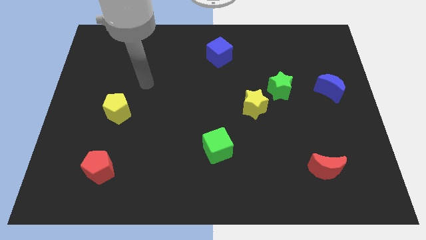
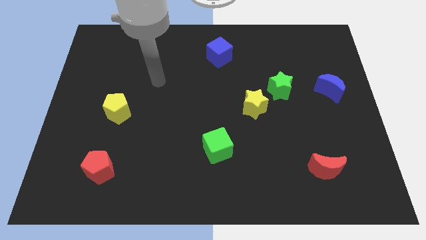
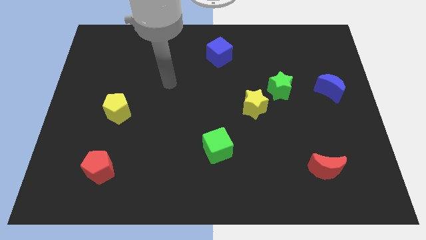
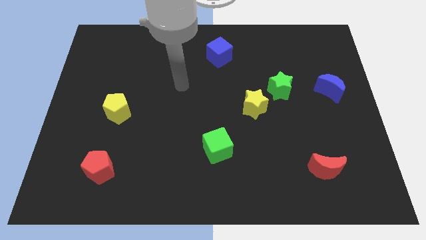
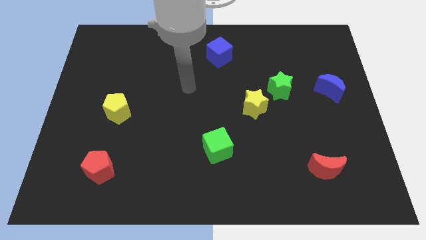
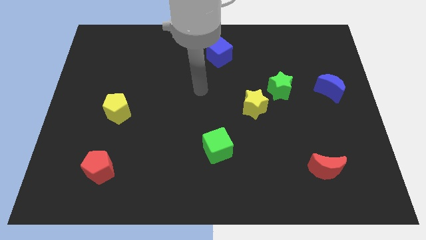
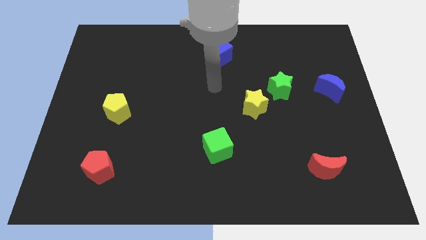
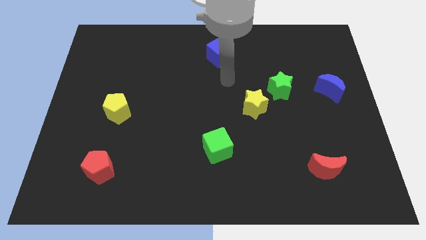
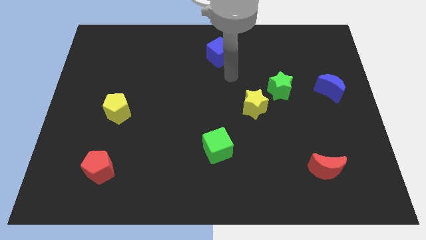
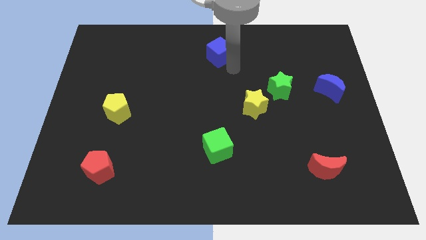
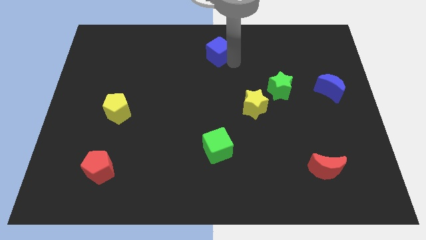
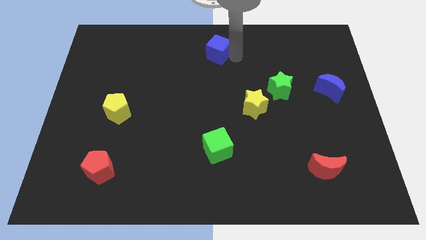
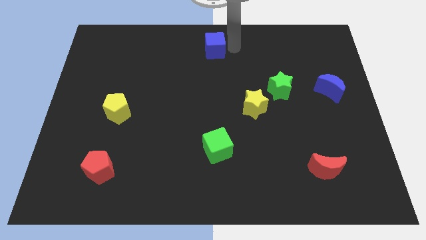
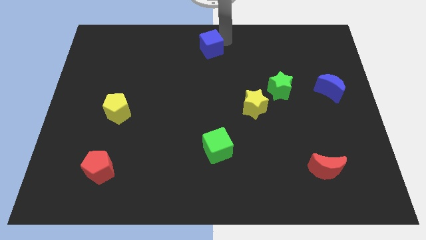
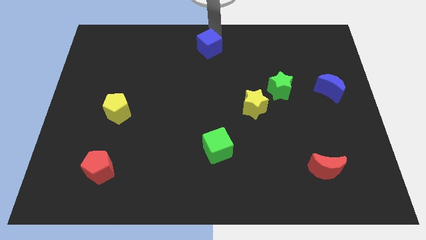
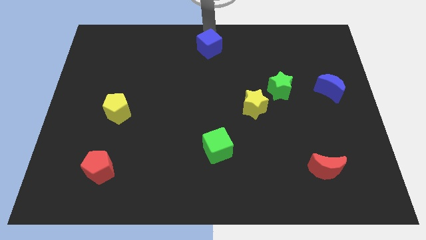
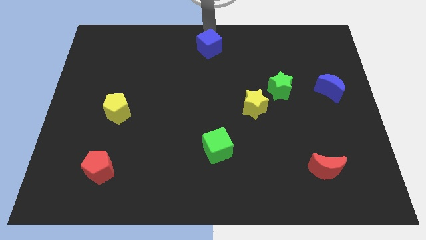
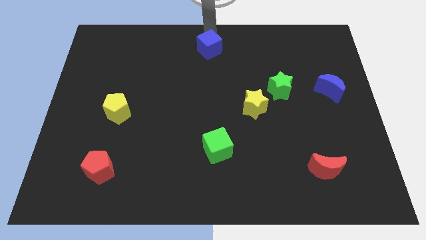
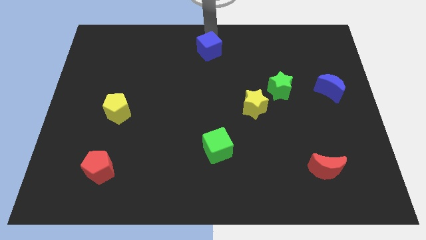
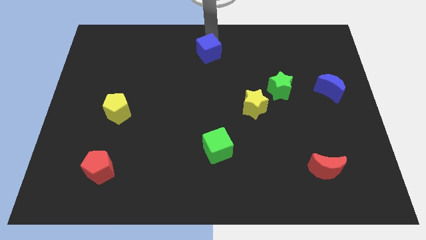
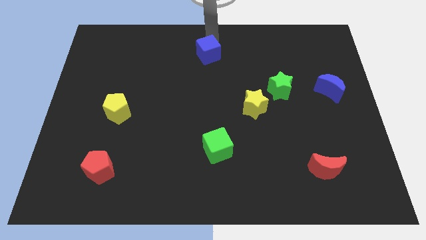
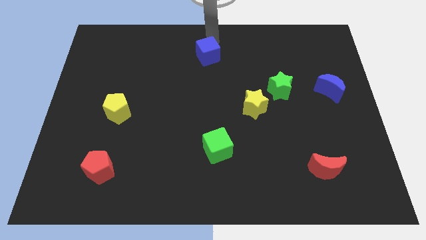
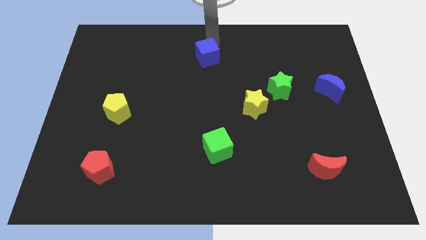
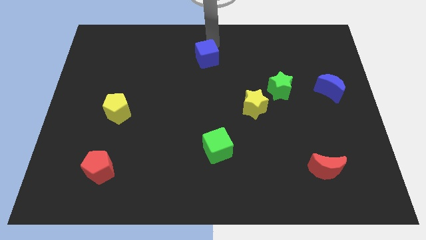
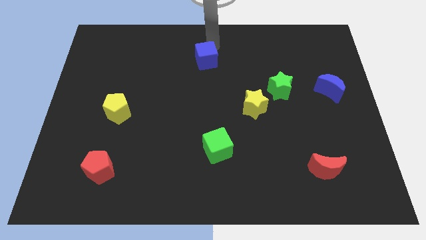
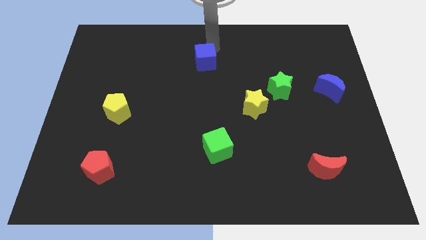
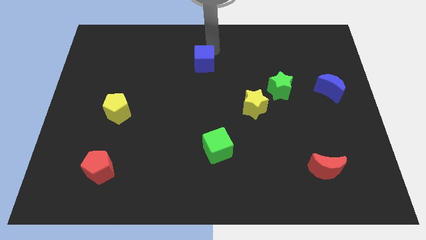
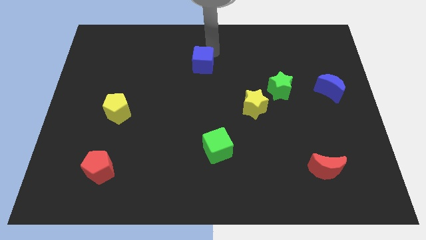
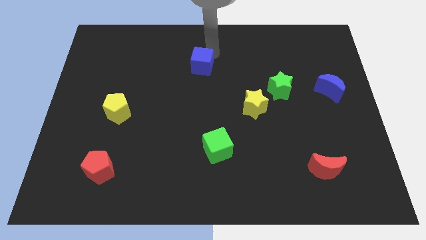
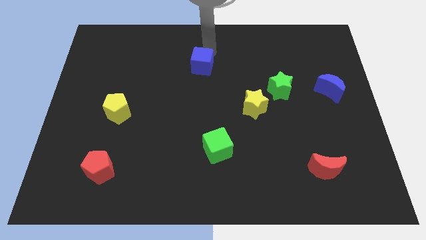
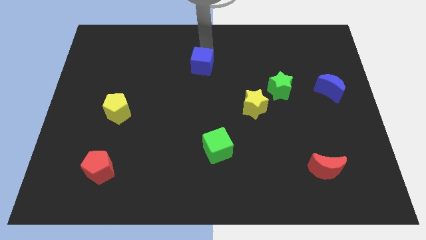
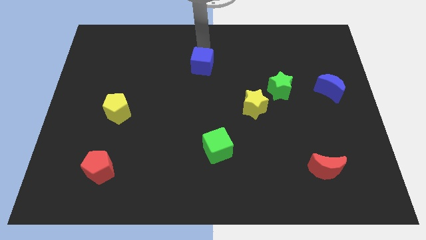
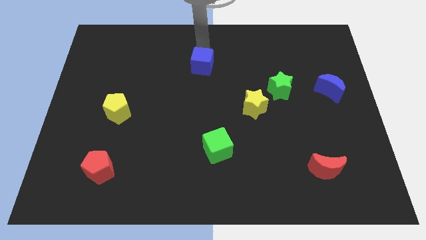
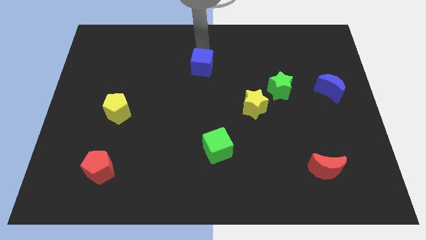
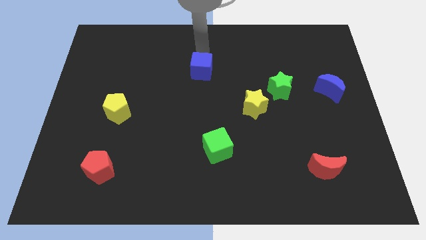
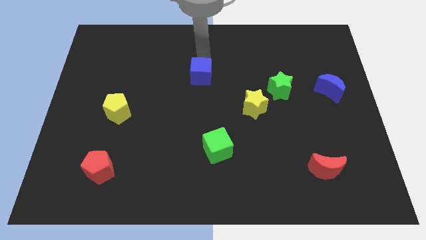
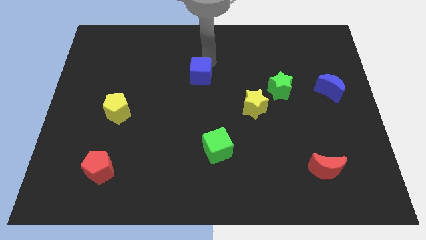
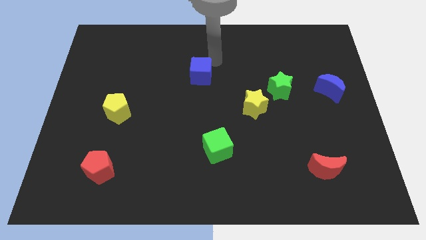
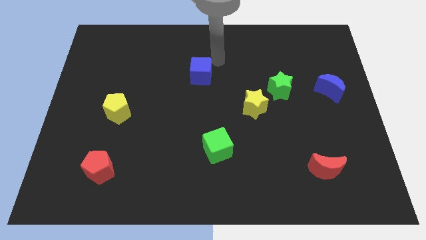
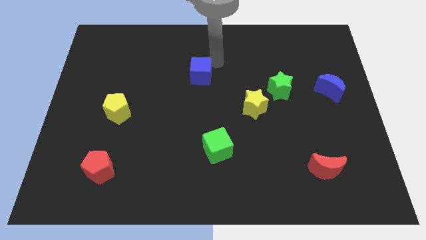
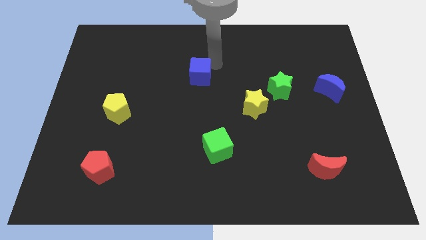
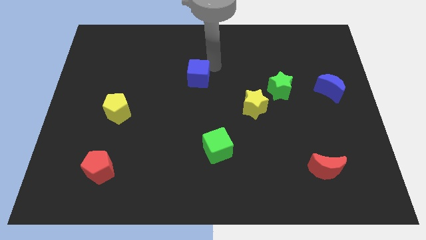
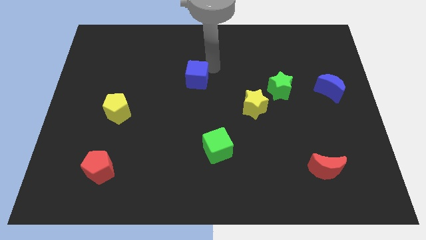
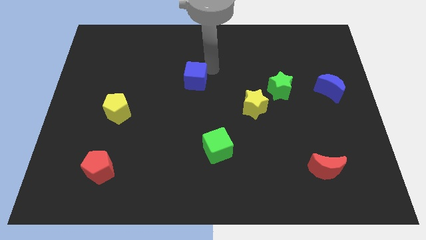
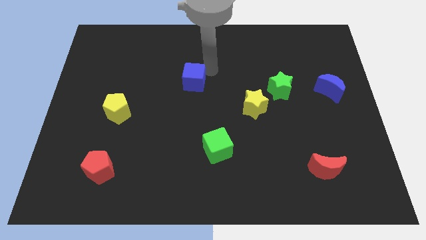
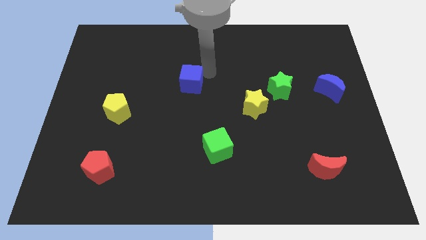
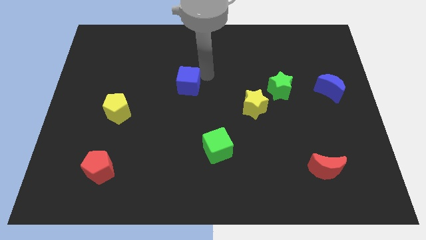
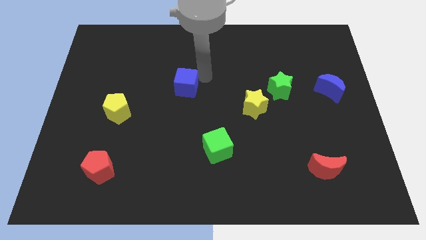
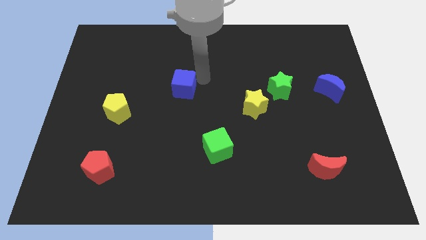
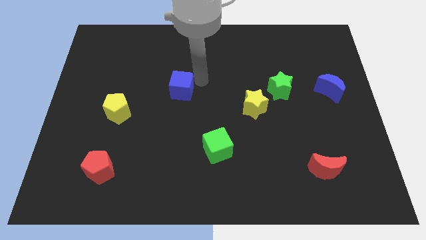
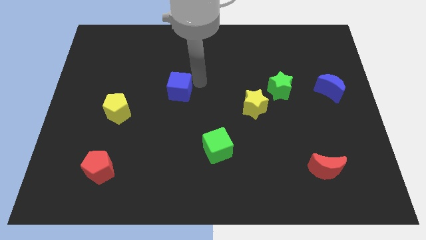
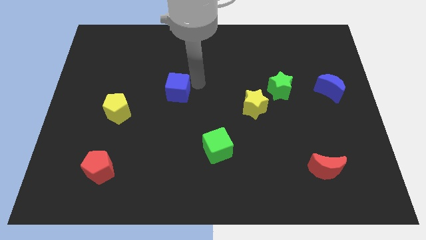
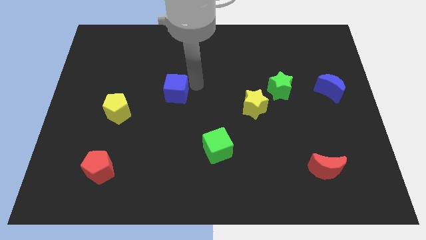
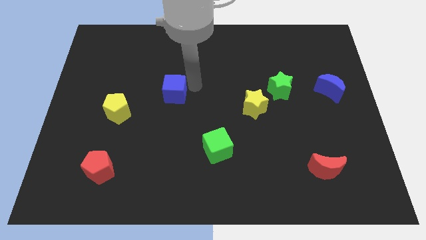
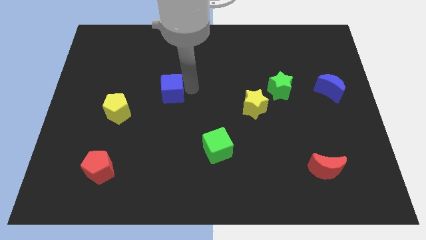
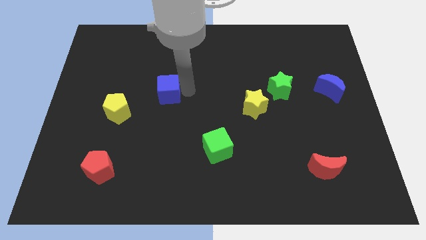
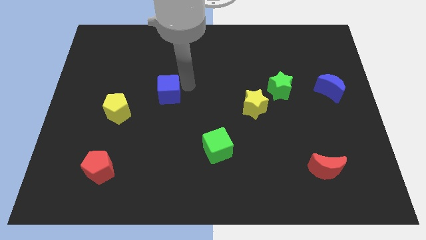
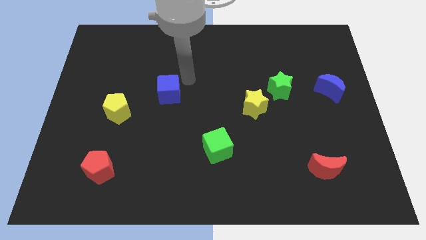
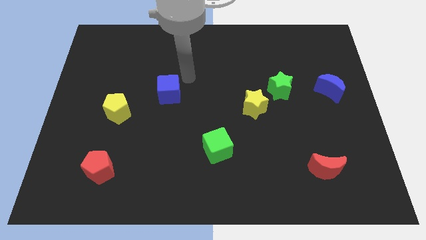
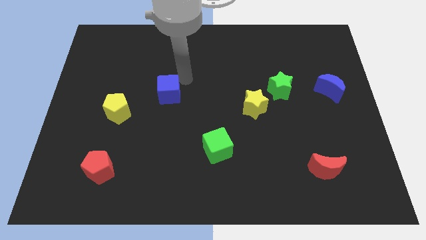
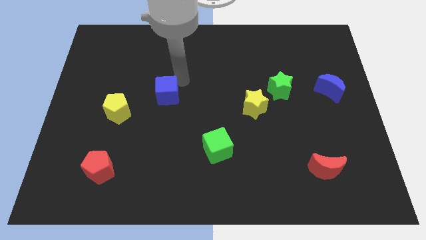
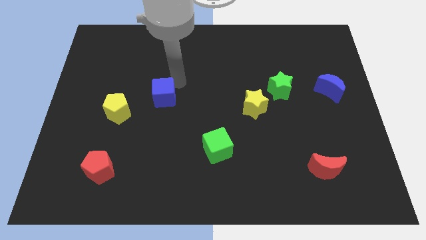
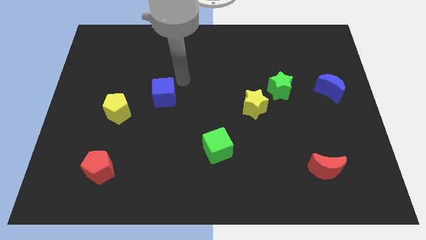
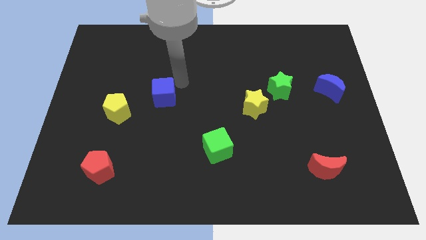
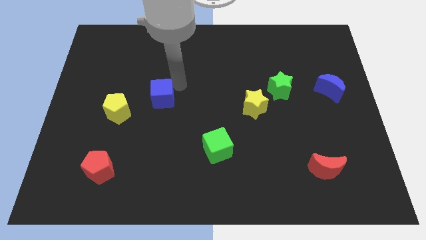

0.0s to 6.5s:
move the blue cube diagonally down and left

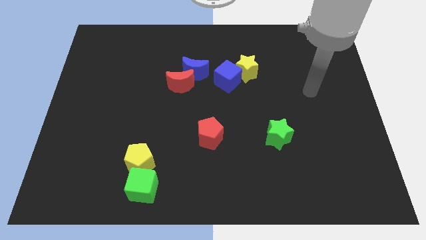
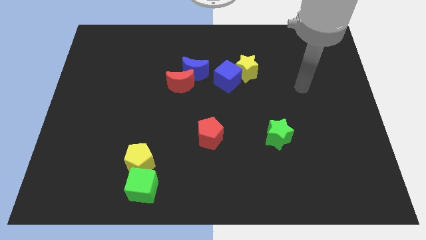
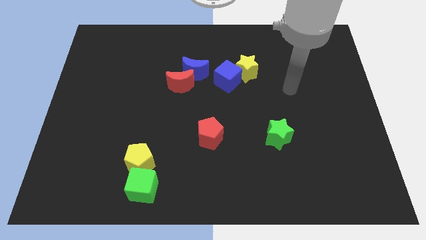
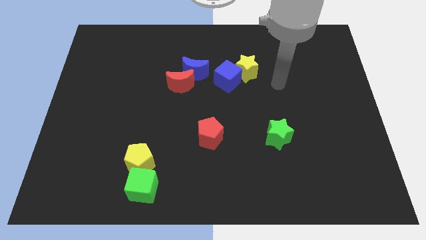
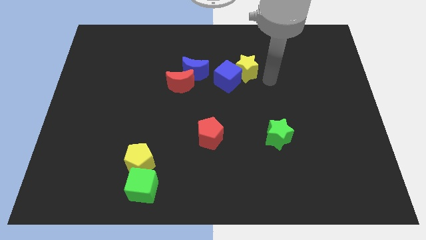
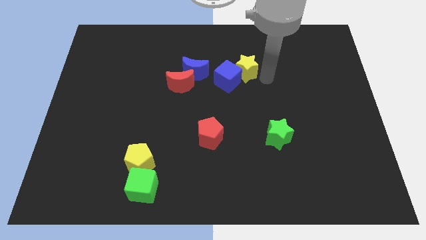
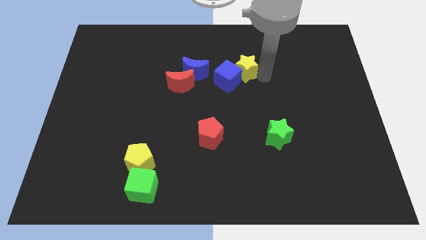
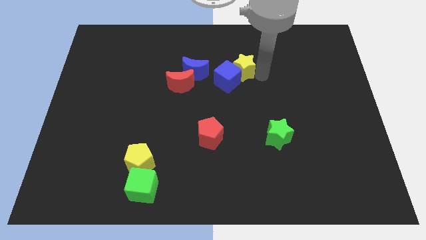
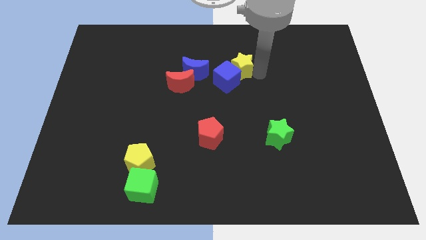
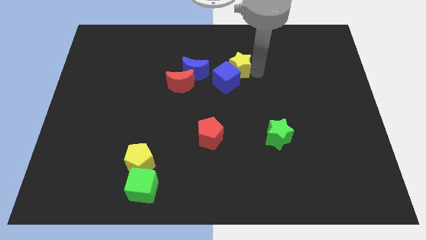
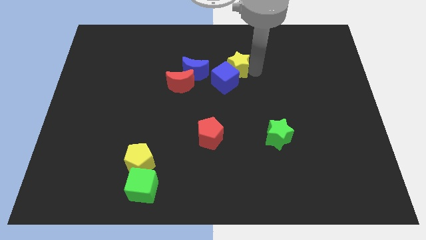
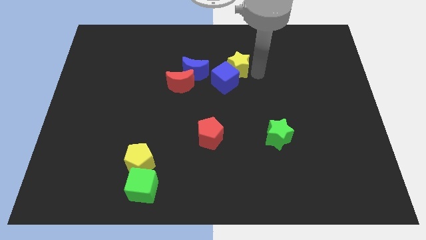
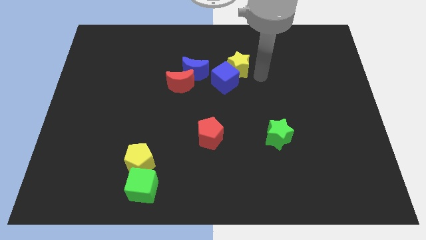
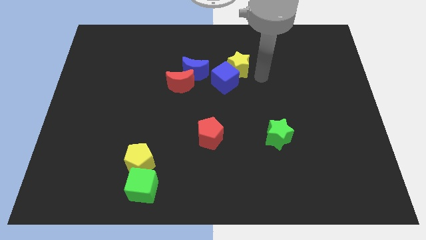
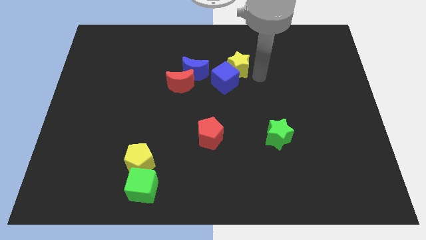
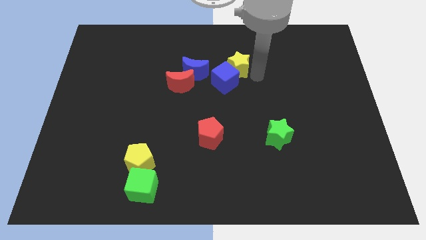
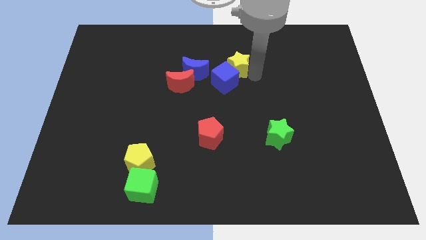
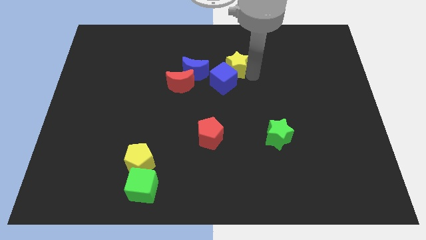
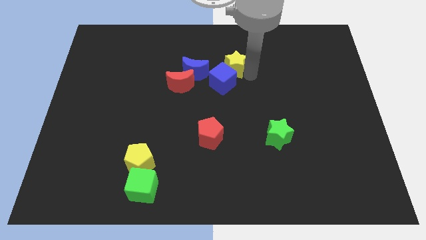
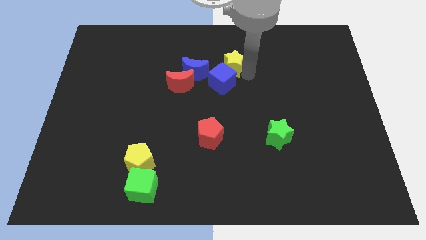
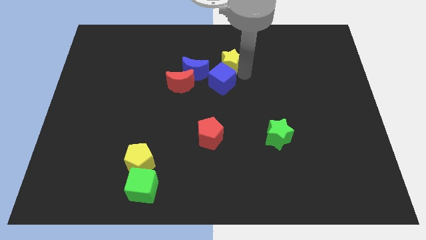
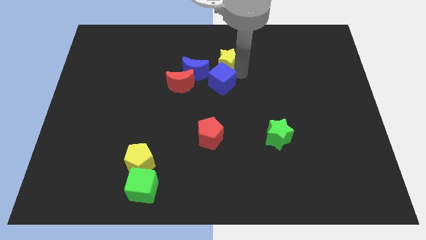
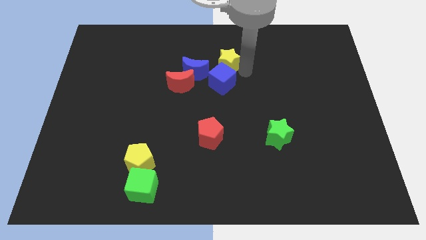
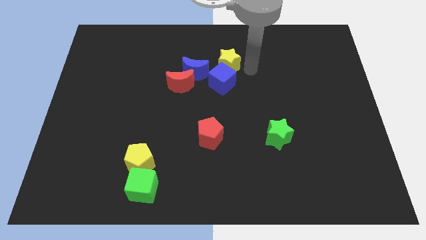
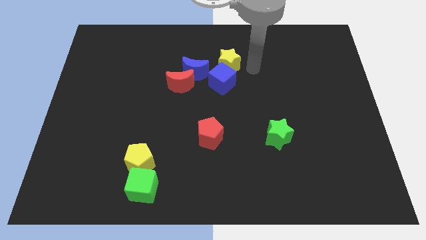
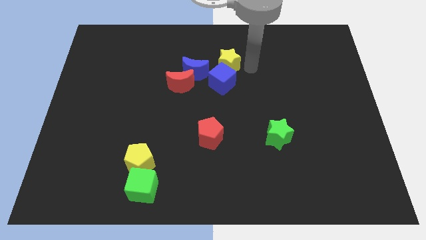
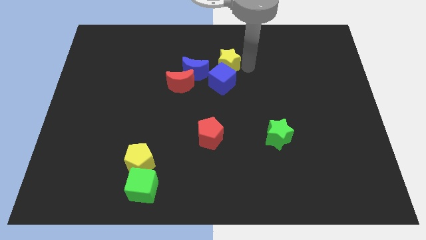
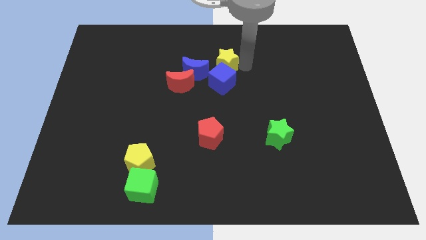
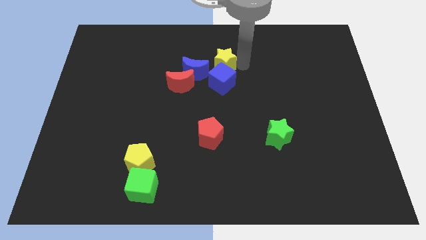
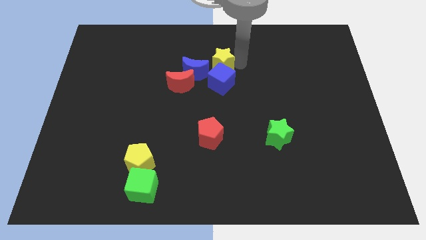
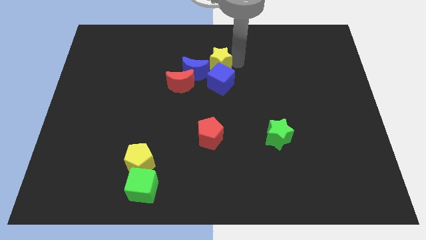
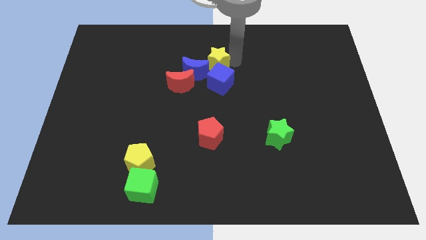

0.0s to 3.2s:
slide the yellow star left a little
